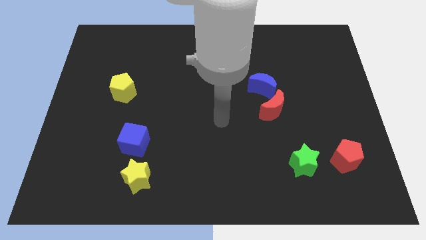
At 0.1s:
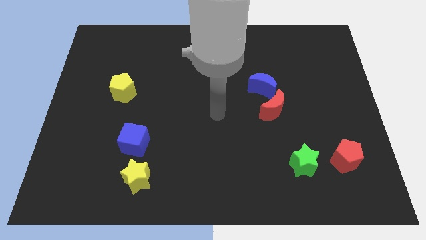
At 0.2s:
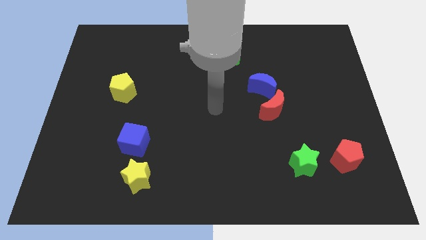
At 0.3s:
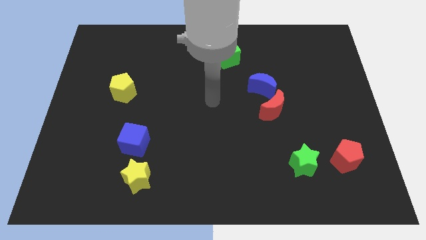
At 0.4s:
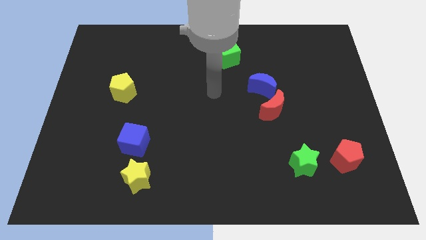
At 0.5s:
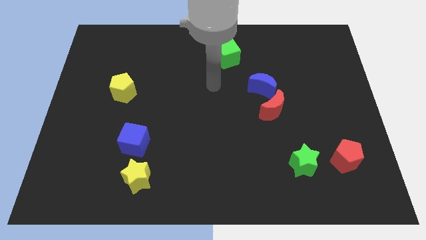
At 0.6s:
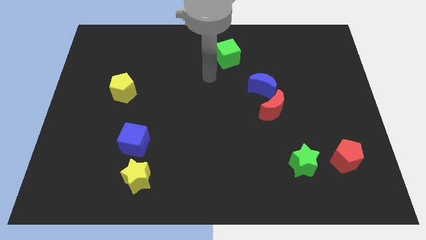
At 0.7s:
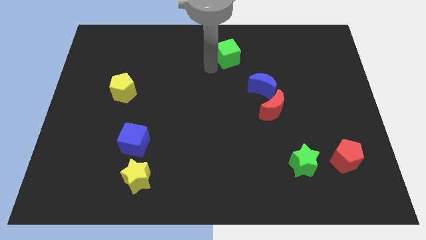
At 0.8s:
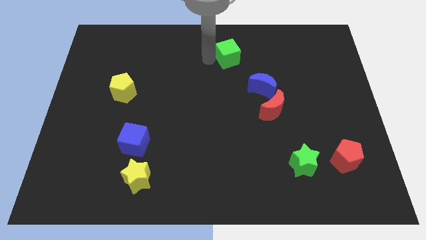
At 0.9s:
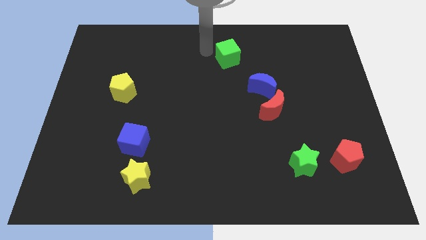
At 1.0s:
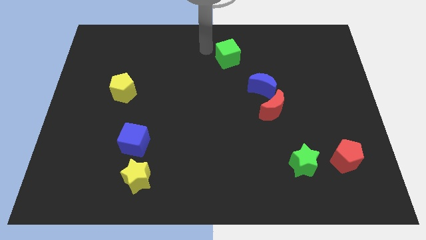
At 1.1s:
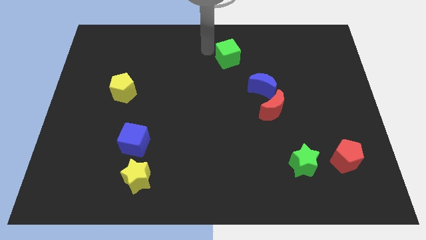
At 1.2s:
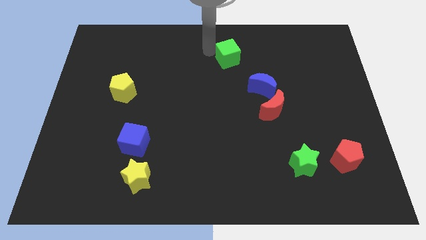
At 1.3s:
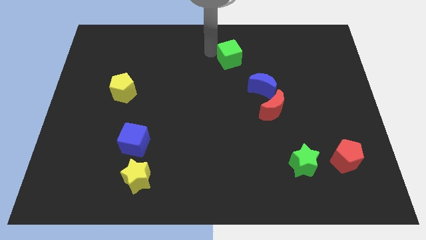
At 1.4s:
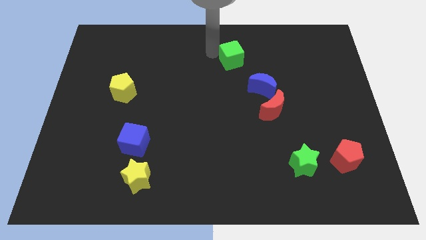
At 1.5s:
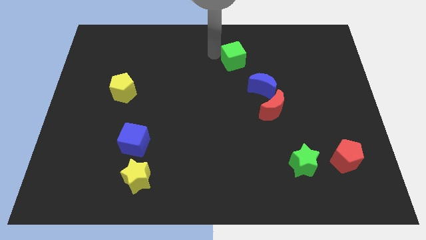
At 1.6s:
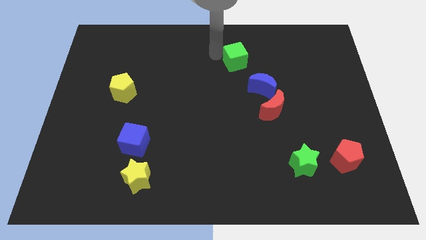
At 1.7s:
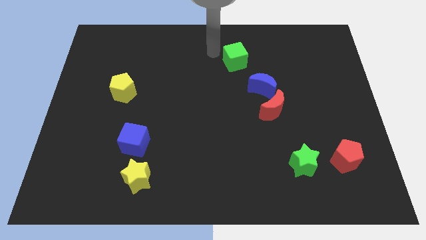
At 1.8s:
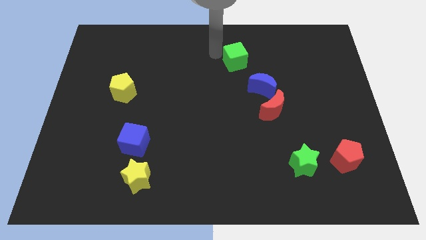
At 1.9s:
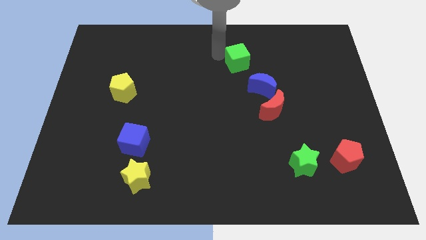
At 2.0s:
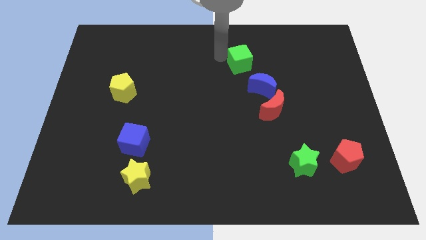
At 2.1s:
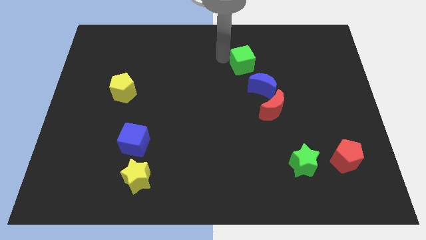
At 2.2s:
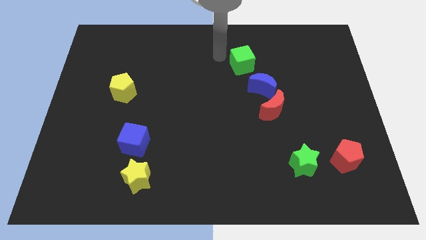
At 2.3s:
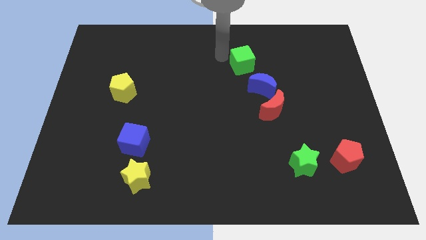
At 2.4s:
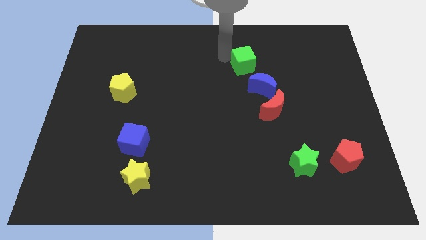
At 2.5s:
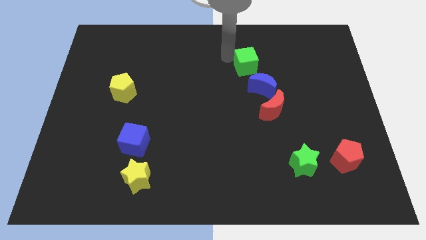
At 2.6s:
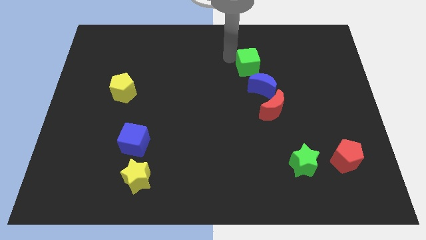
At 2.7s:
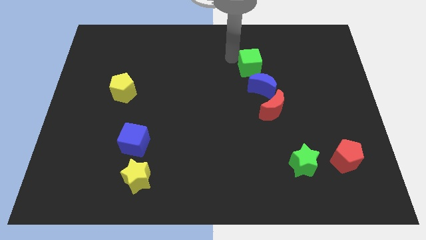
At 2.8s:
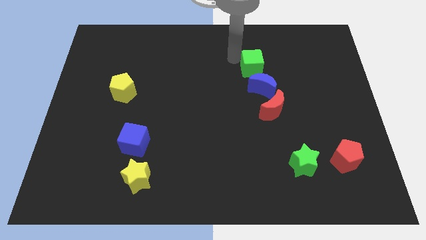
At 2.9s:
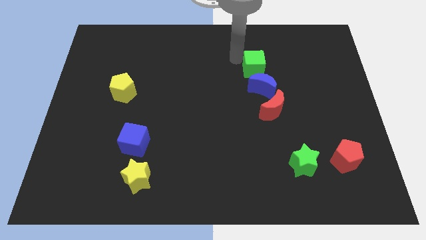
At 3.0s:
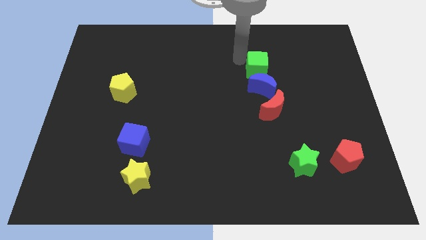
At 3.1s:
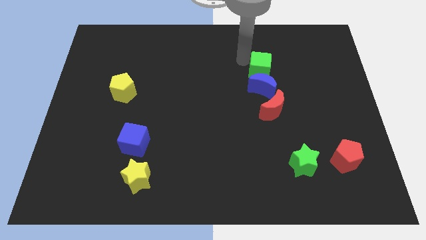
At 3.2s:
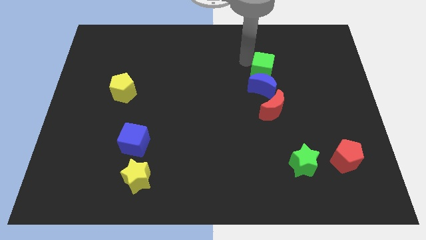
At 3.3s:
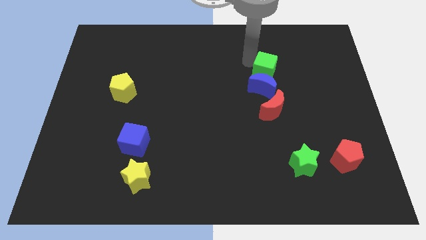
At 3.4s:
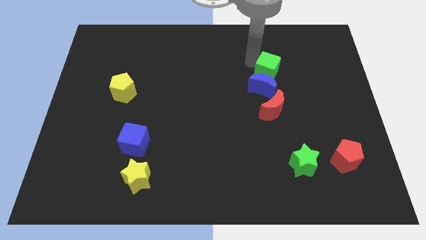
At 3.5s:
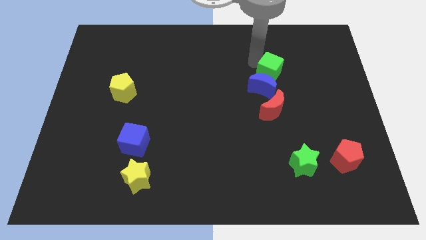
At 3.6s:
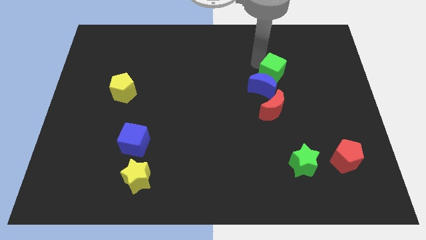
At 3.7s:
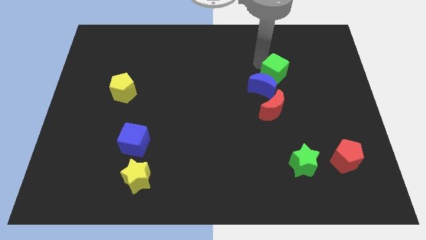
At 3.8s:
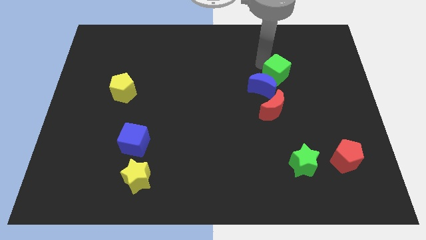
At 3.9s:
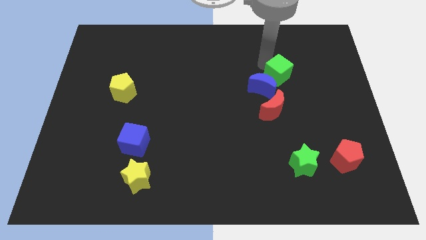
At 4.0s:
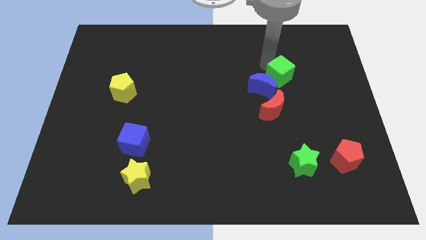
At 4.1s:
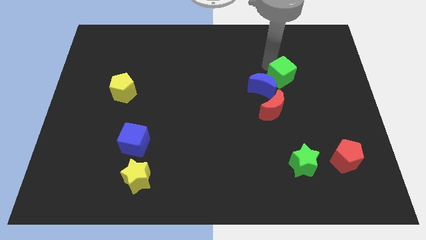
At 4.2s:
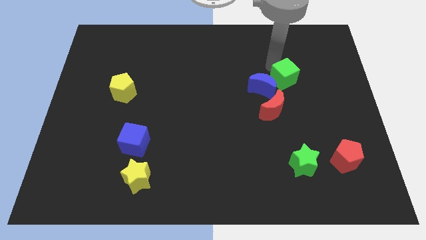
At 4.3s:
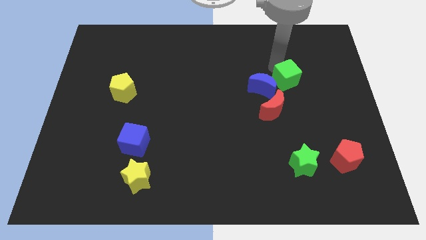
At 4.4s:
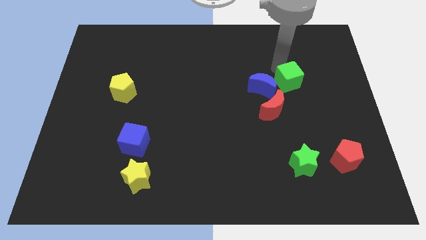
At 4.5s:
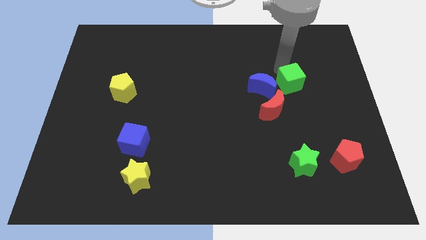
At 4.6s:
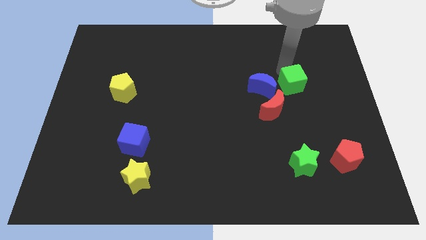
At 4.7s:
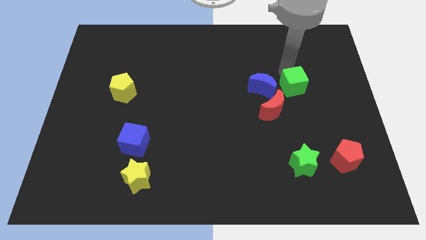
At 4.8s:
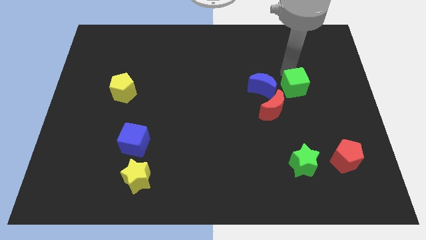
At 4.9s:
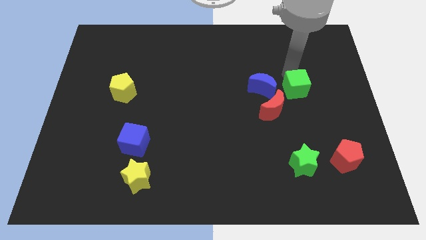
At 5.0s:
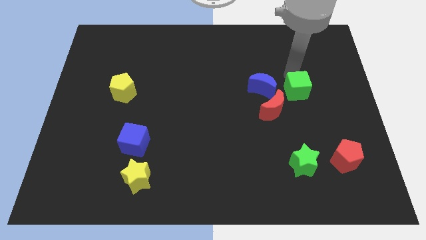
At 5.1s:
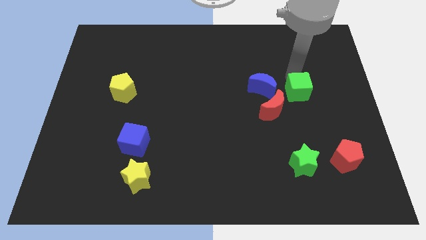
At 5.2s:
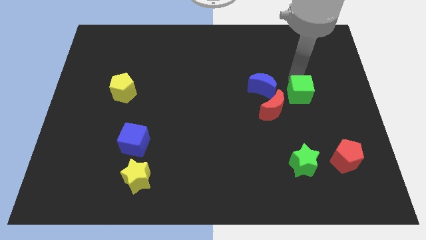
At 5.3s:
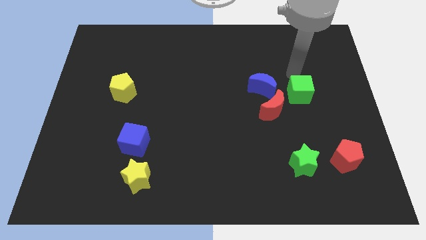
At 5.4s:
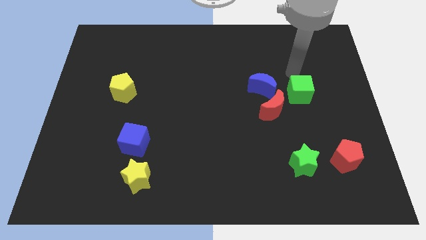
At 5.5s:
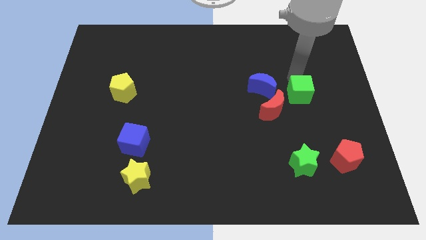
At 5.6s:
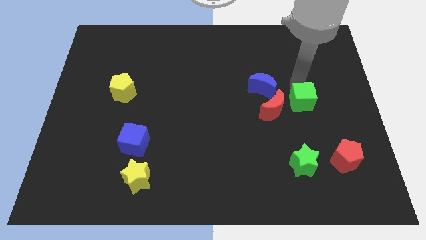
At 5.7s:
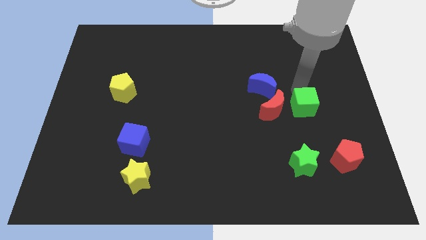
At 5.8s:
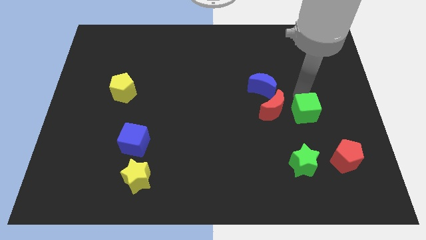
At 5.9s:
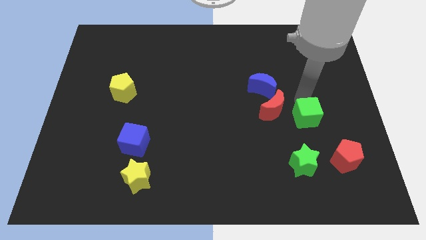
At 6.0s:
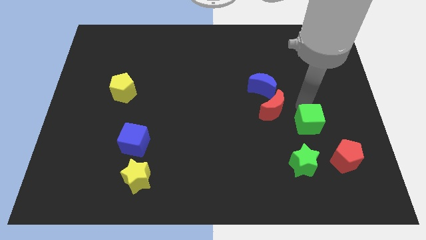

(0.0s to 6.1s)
push the green cube to the top left of the red pentagon

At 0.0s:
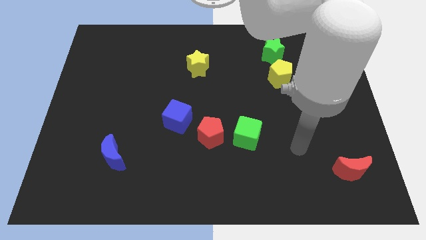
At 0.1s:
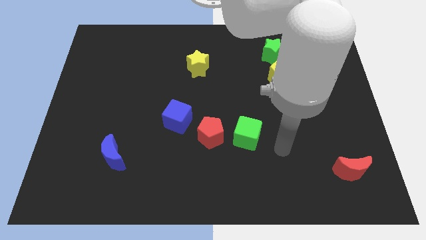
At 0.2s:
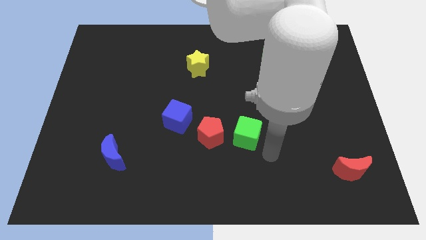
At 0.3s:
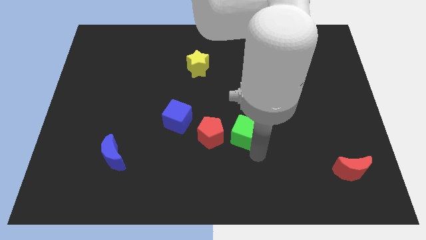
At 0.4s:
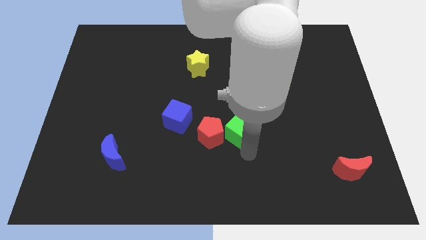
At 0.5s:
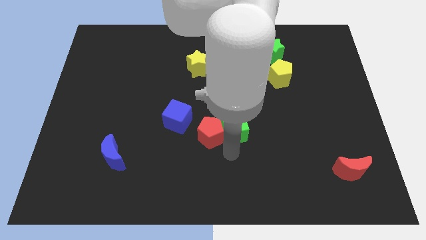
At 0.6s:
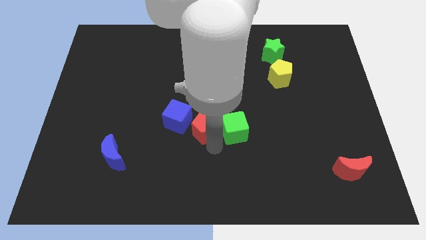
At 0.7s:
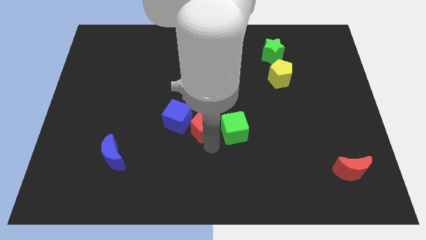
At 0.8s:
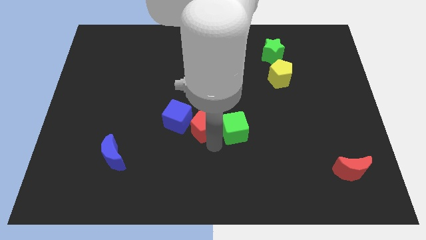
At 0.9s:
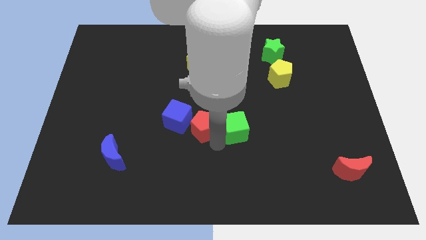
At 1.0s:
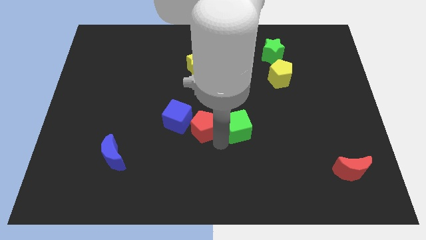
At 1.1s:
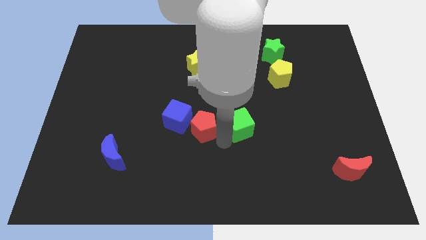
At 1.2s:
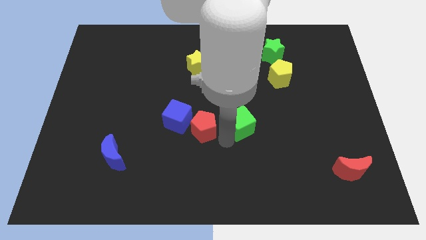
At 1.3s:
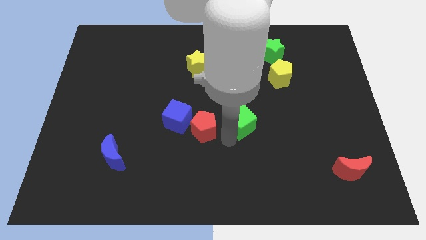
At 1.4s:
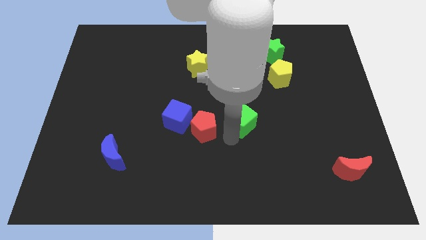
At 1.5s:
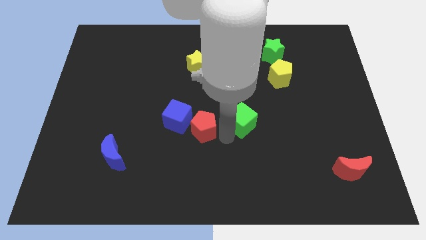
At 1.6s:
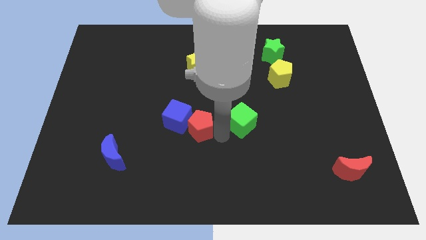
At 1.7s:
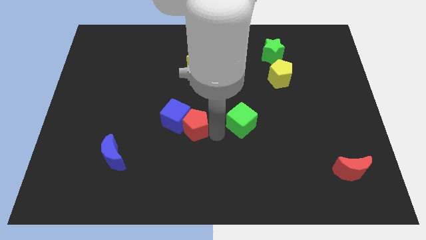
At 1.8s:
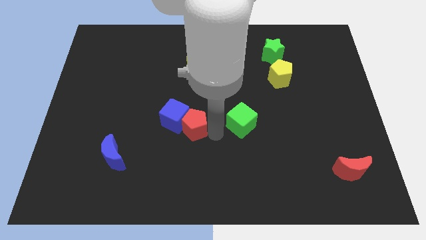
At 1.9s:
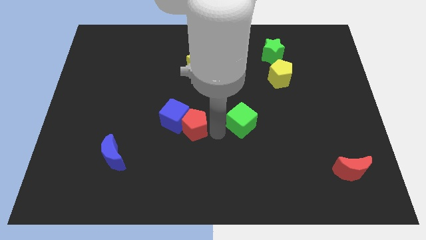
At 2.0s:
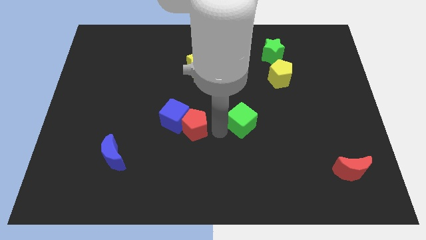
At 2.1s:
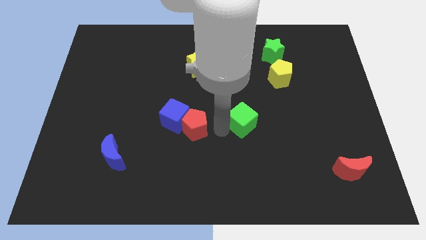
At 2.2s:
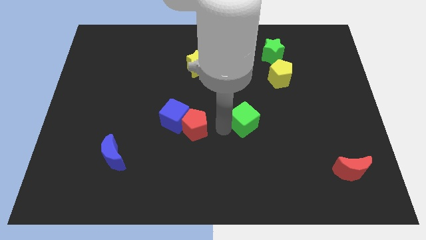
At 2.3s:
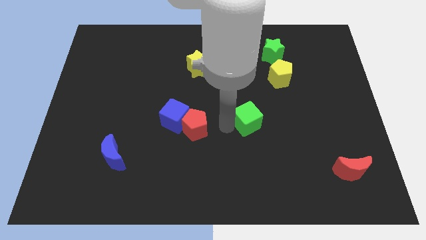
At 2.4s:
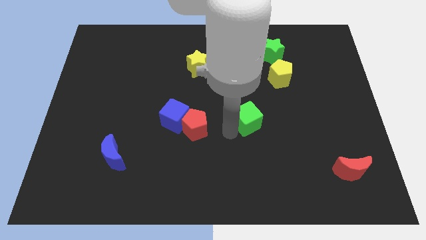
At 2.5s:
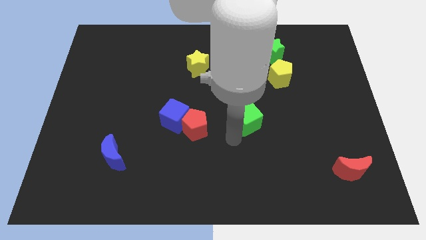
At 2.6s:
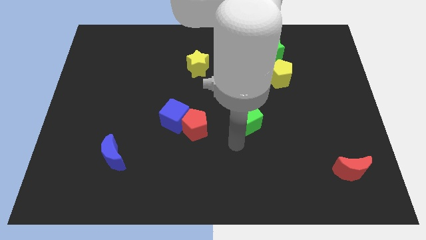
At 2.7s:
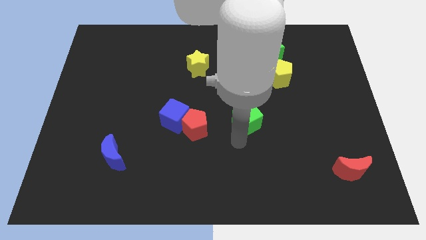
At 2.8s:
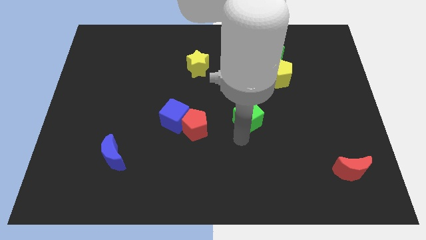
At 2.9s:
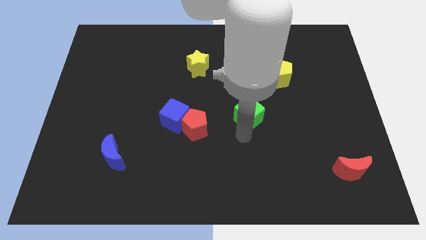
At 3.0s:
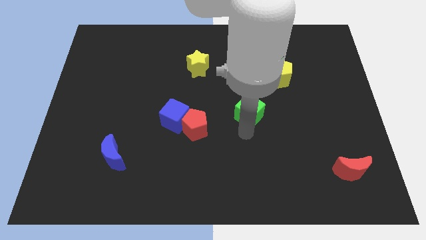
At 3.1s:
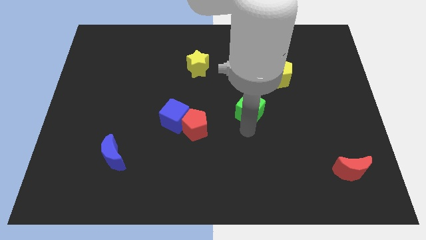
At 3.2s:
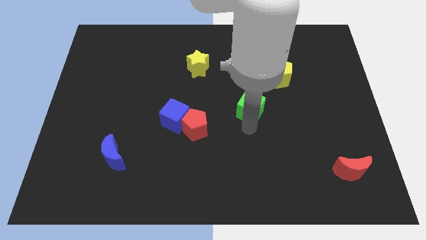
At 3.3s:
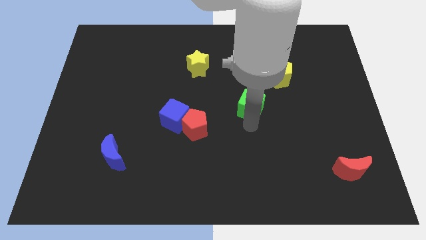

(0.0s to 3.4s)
slide the green cube to the bottom left side of the yellow pentagon
